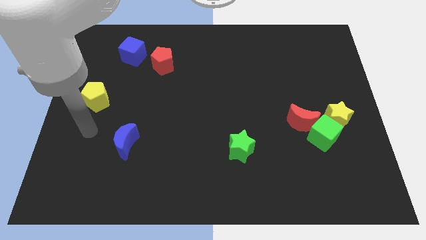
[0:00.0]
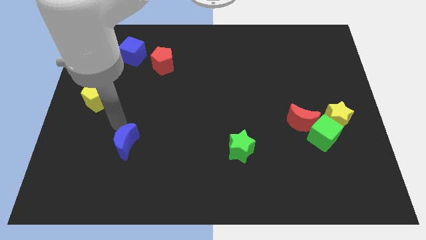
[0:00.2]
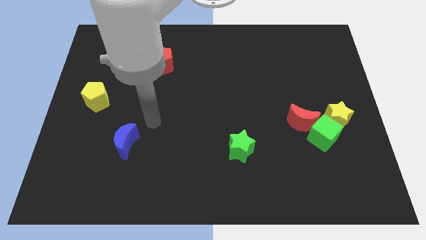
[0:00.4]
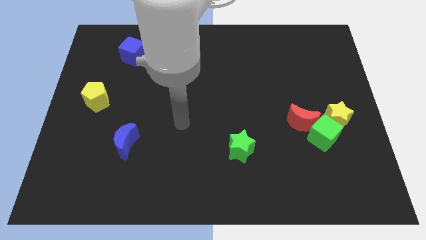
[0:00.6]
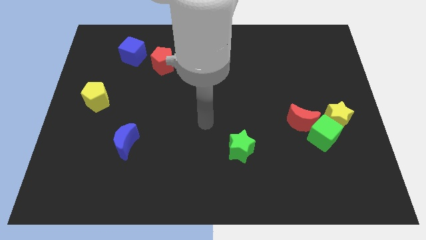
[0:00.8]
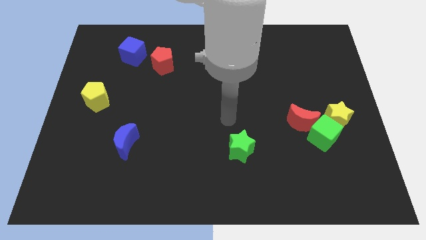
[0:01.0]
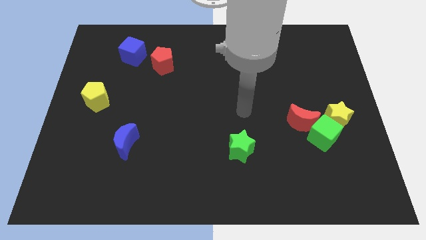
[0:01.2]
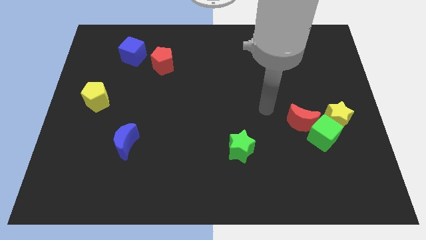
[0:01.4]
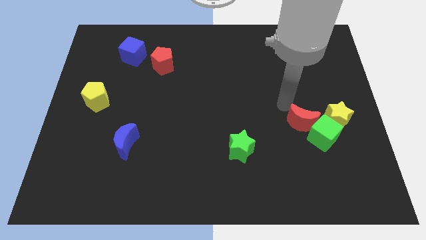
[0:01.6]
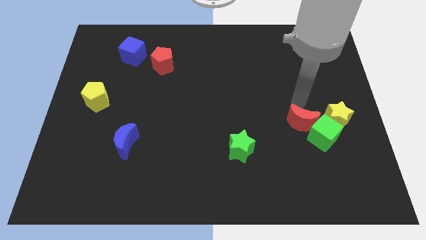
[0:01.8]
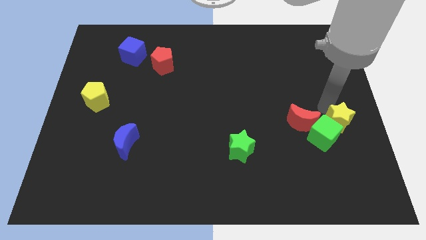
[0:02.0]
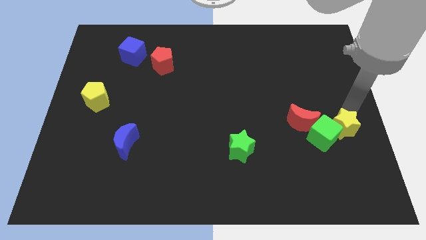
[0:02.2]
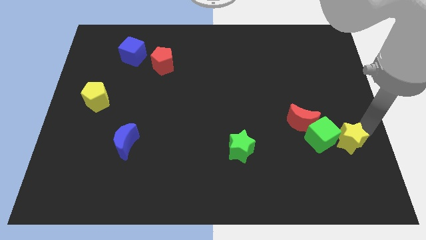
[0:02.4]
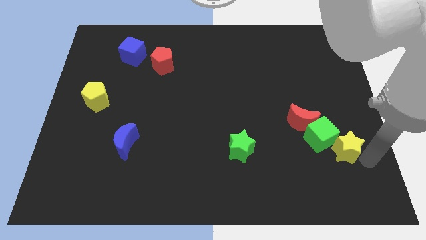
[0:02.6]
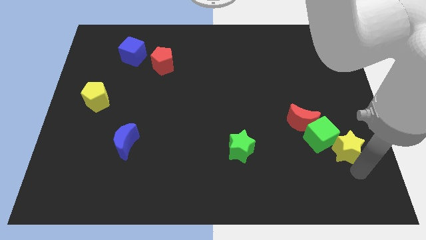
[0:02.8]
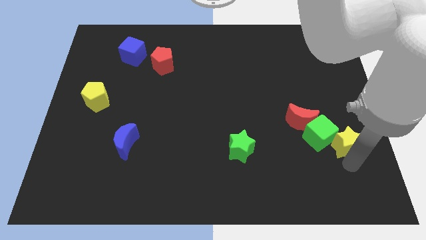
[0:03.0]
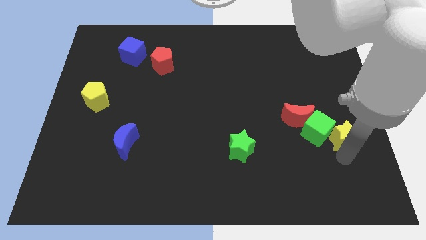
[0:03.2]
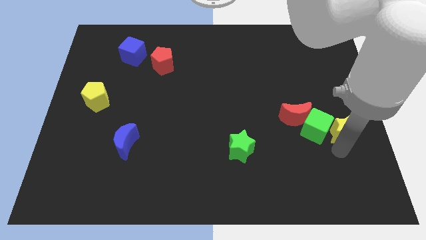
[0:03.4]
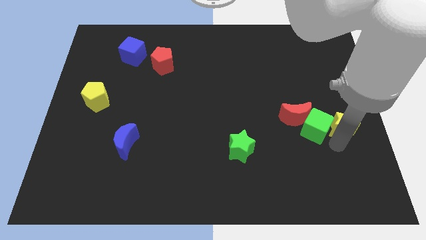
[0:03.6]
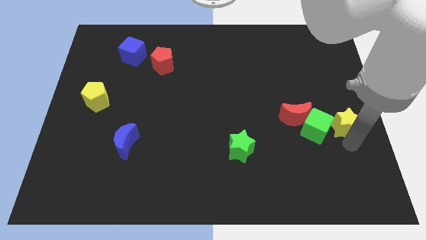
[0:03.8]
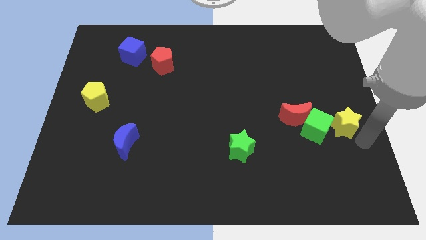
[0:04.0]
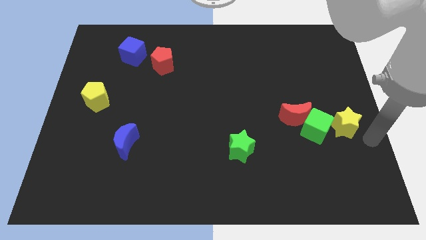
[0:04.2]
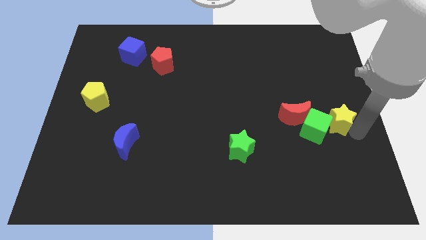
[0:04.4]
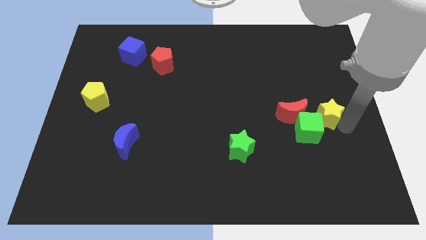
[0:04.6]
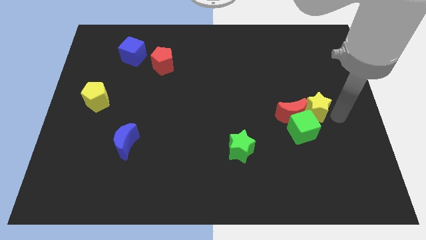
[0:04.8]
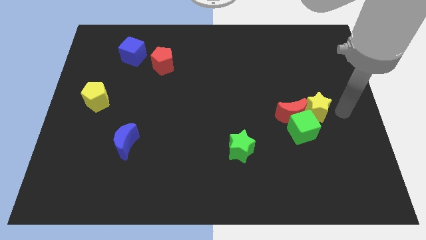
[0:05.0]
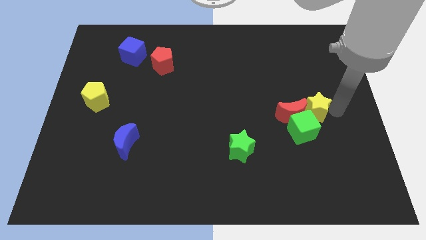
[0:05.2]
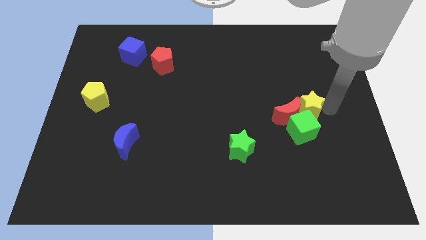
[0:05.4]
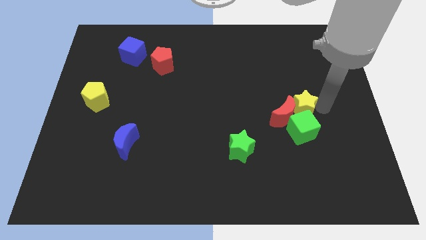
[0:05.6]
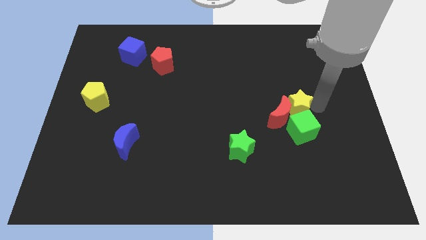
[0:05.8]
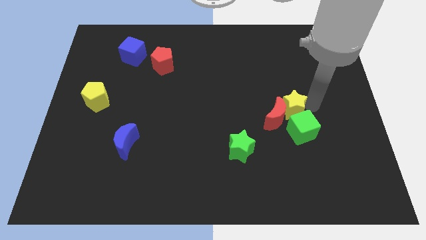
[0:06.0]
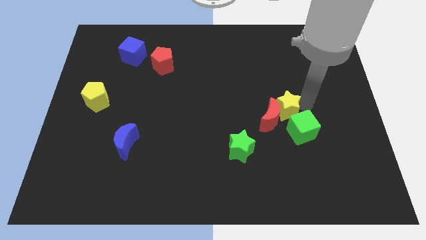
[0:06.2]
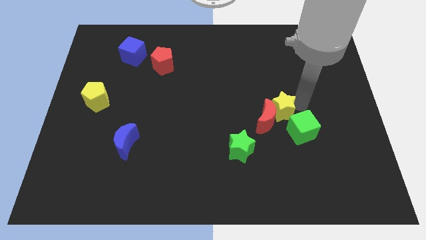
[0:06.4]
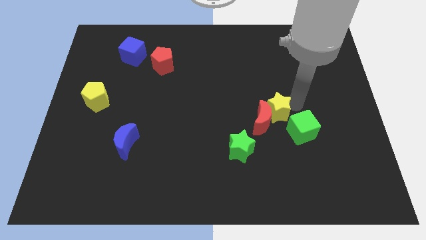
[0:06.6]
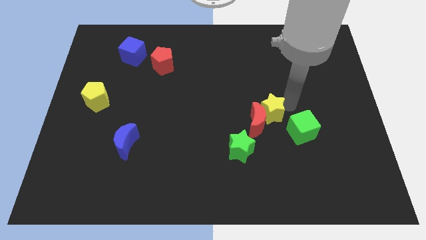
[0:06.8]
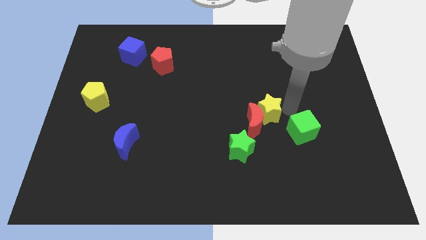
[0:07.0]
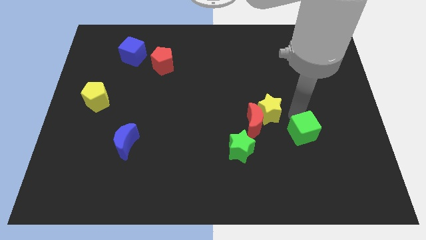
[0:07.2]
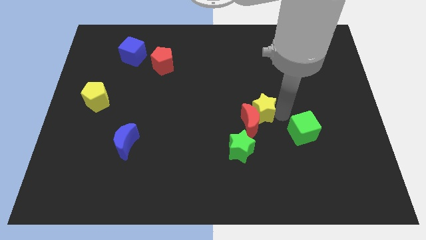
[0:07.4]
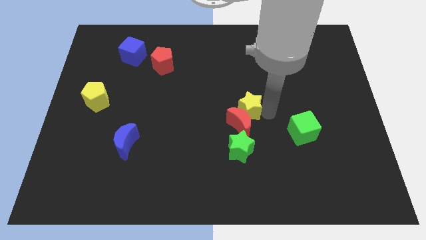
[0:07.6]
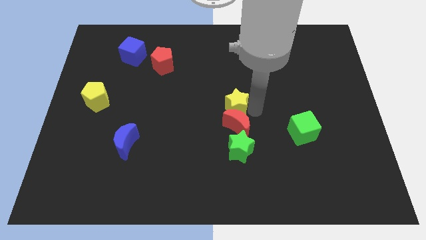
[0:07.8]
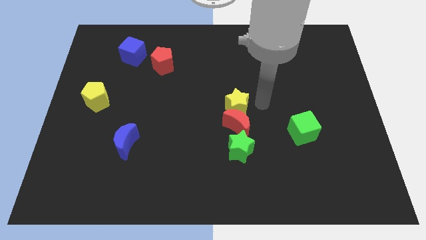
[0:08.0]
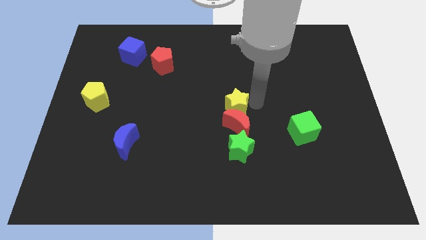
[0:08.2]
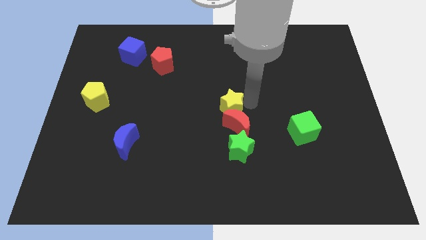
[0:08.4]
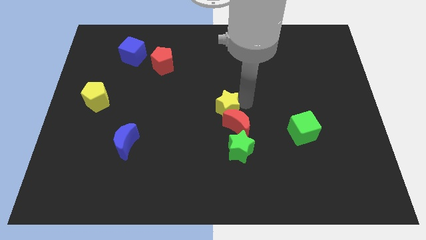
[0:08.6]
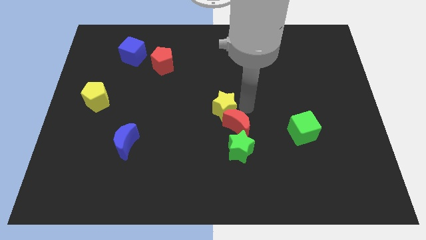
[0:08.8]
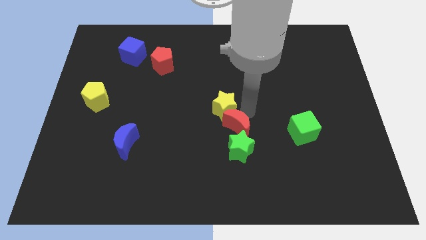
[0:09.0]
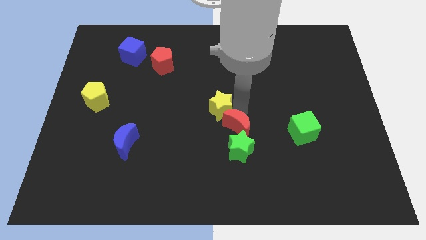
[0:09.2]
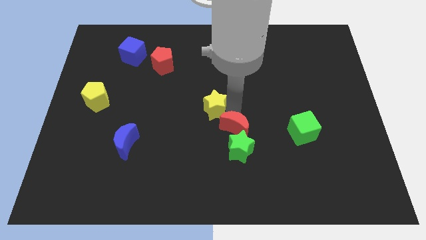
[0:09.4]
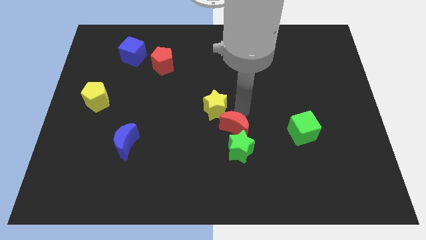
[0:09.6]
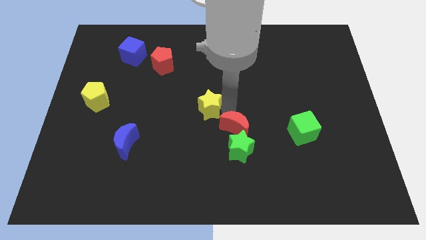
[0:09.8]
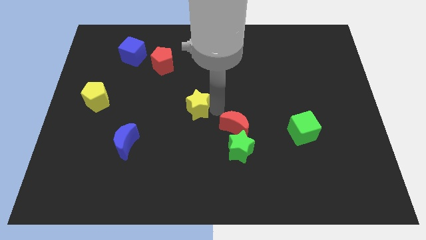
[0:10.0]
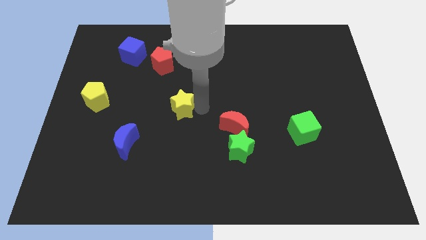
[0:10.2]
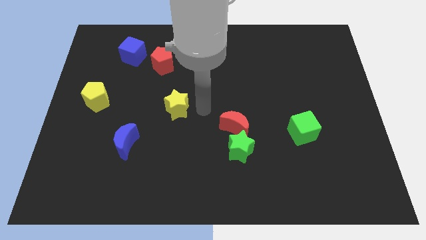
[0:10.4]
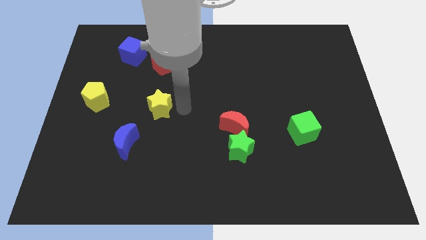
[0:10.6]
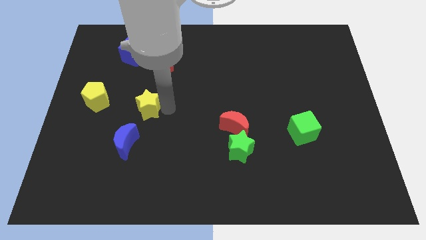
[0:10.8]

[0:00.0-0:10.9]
push the yellow star to the top side of the blue moon
